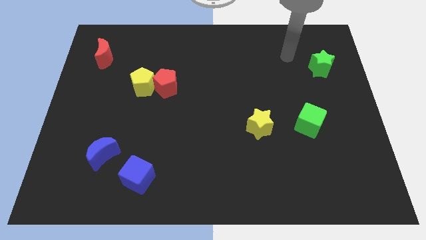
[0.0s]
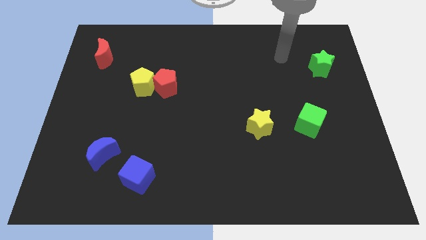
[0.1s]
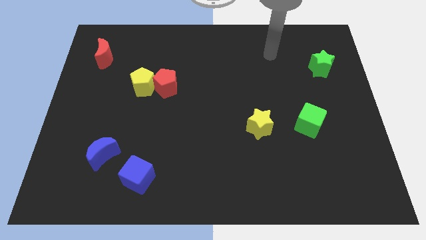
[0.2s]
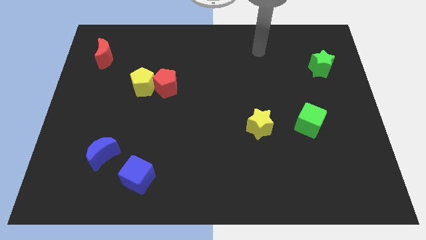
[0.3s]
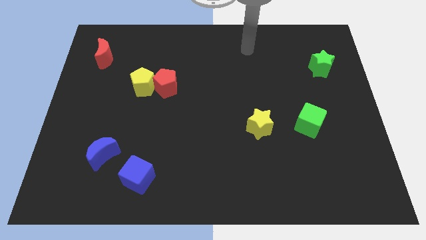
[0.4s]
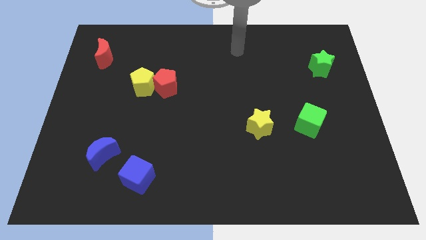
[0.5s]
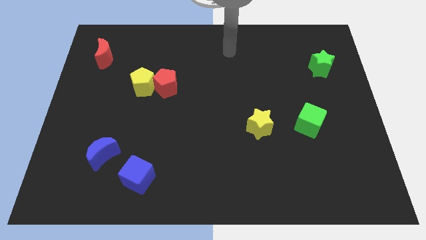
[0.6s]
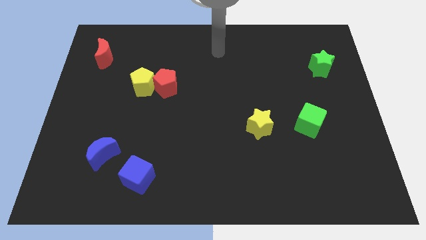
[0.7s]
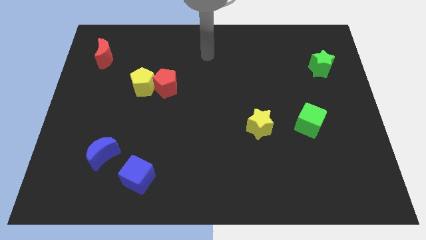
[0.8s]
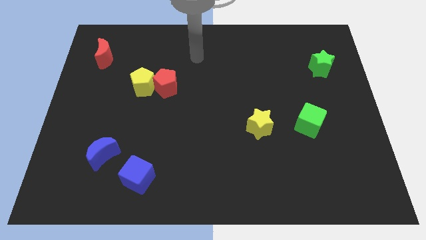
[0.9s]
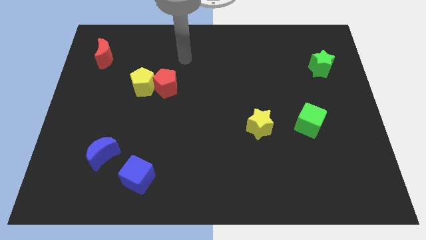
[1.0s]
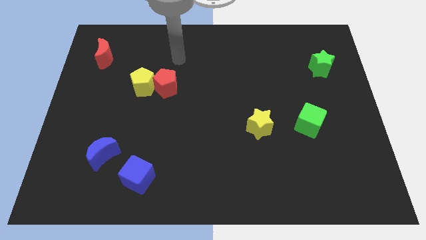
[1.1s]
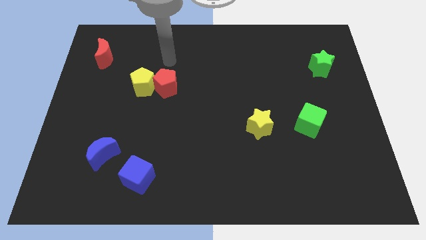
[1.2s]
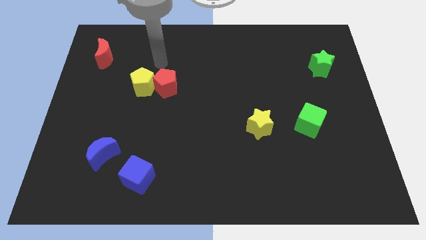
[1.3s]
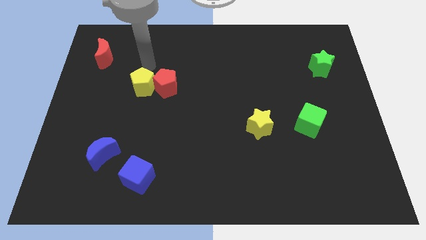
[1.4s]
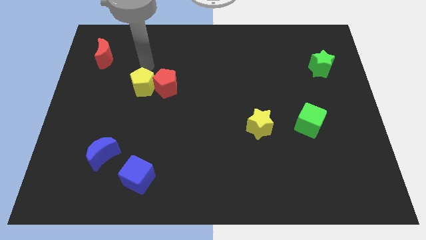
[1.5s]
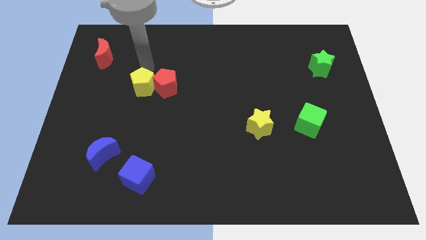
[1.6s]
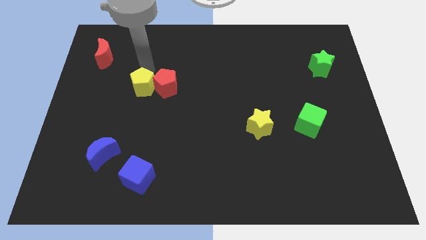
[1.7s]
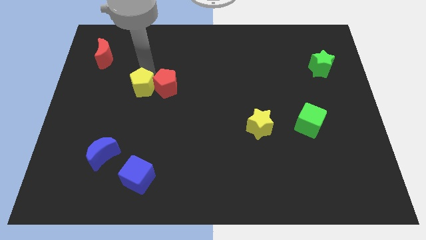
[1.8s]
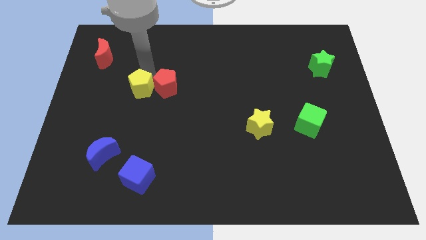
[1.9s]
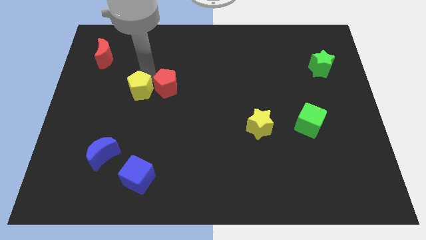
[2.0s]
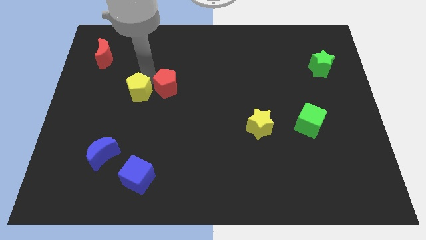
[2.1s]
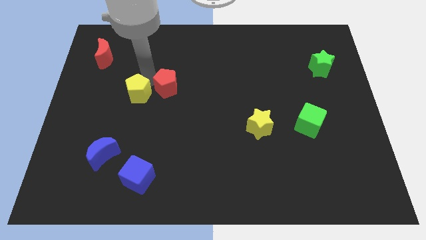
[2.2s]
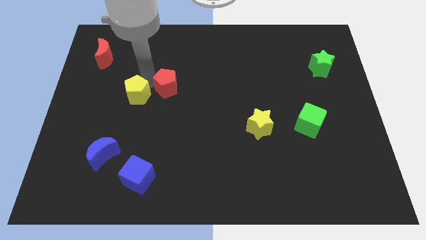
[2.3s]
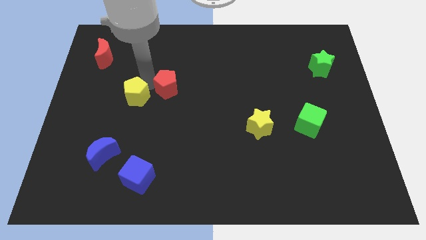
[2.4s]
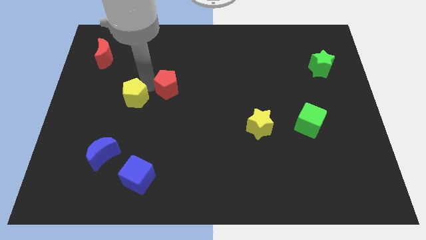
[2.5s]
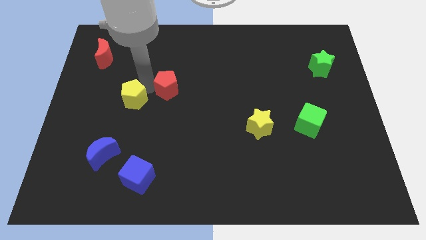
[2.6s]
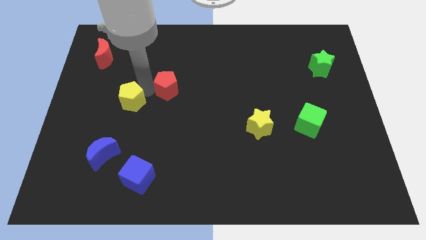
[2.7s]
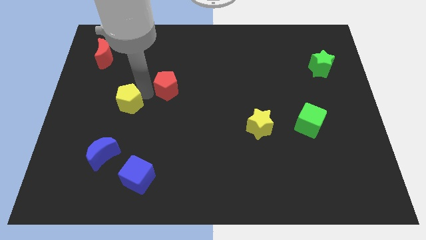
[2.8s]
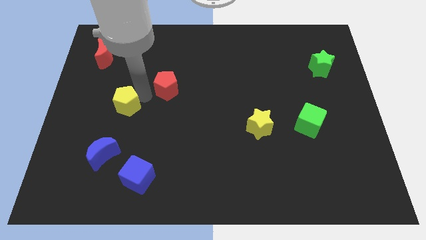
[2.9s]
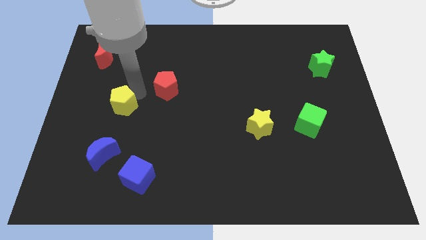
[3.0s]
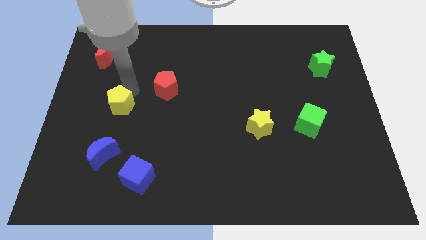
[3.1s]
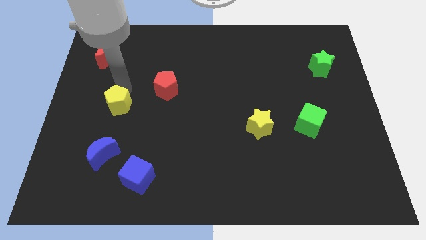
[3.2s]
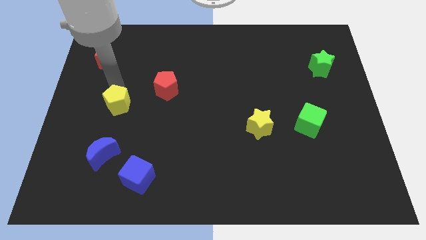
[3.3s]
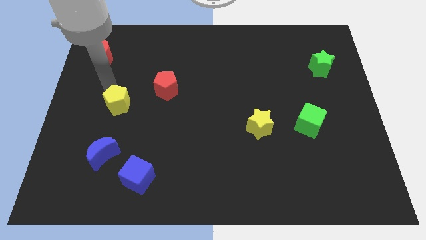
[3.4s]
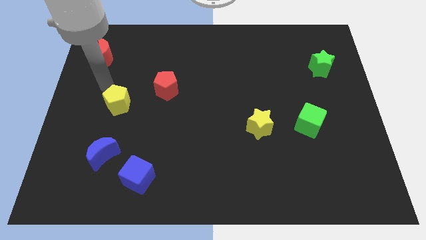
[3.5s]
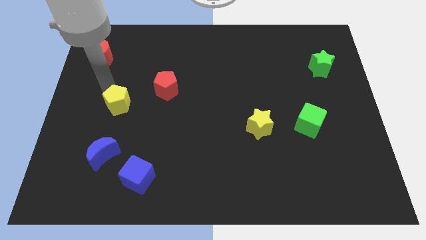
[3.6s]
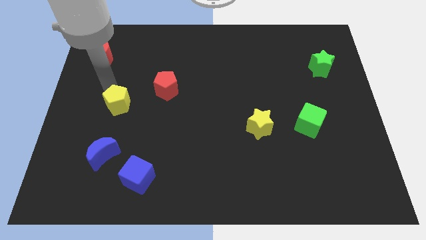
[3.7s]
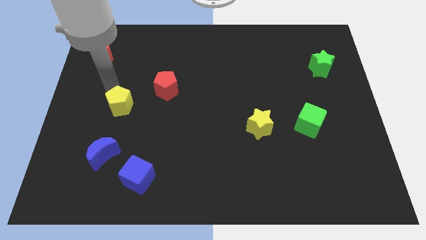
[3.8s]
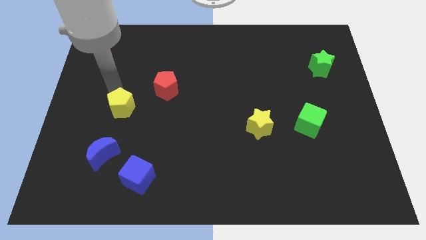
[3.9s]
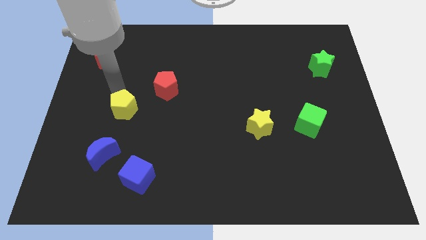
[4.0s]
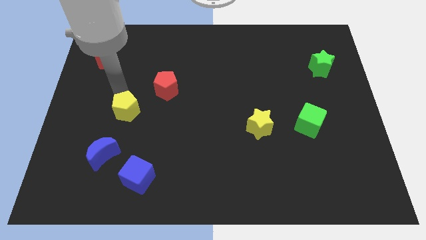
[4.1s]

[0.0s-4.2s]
slightly slide the yellow pentagon down

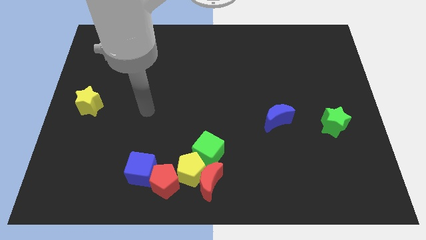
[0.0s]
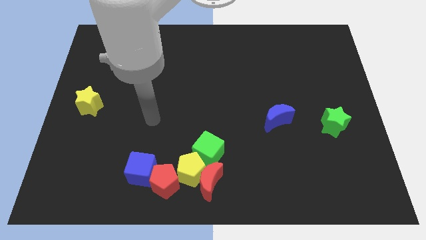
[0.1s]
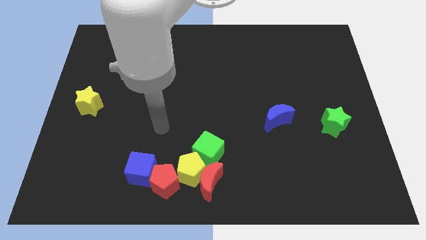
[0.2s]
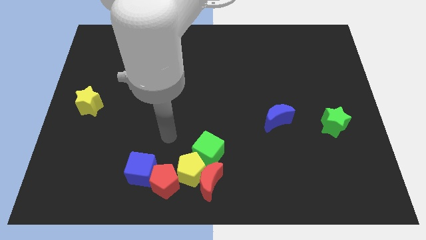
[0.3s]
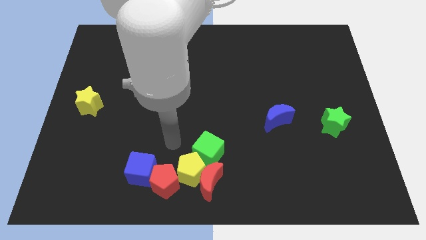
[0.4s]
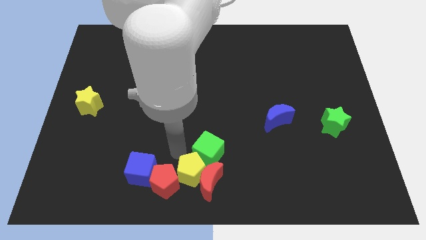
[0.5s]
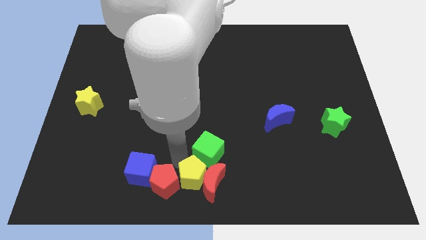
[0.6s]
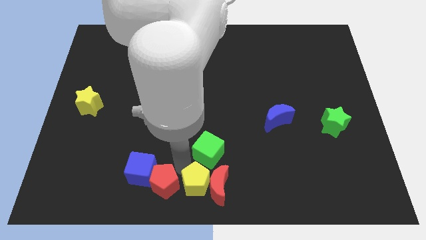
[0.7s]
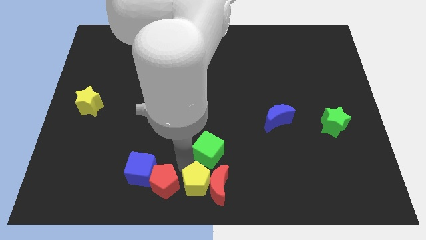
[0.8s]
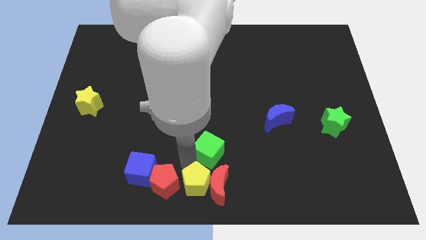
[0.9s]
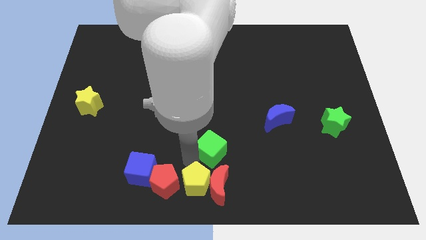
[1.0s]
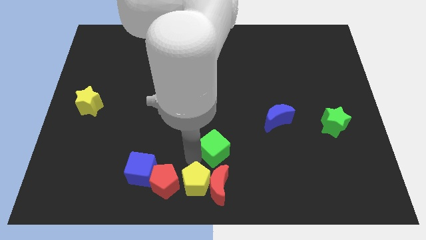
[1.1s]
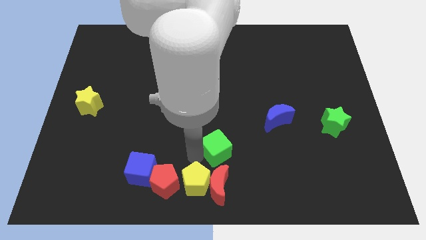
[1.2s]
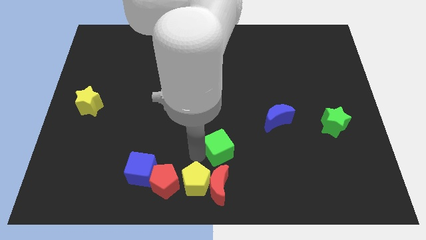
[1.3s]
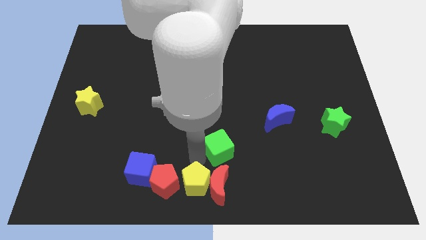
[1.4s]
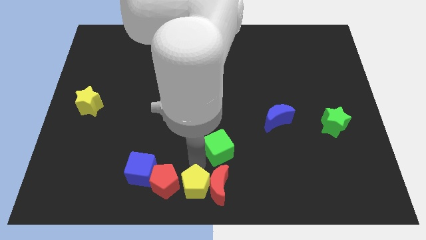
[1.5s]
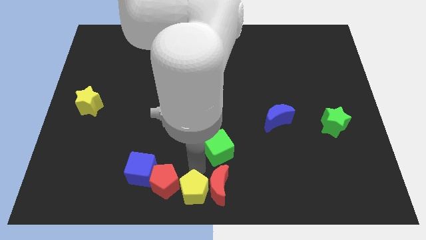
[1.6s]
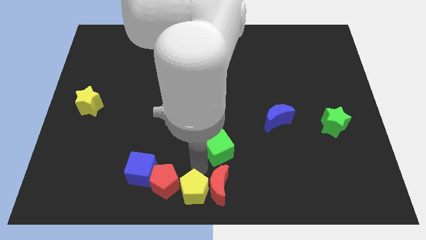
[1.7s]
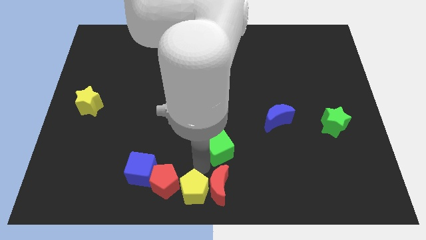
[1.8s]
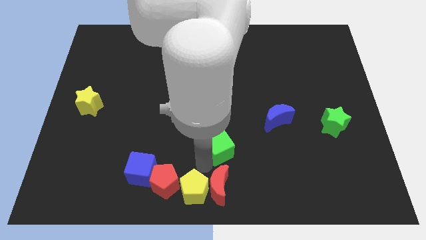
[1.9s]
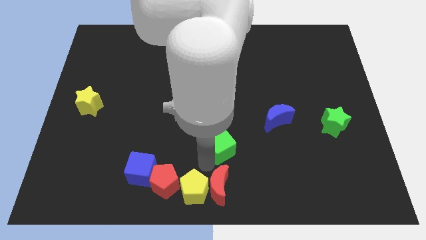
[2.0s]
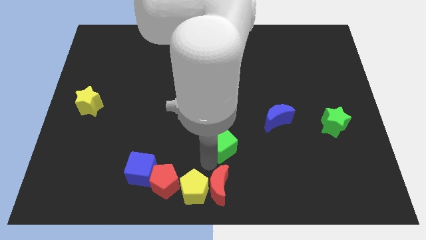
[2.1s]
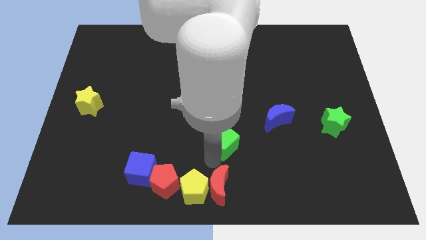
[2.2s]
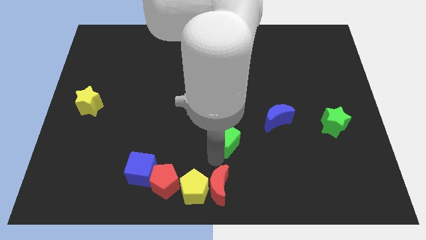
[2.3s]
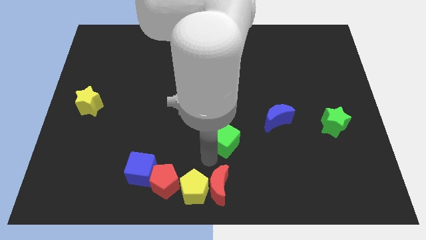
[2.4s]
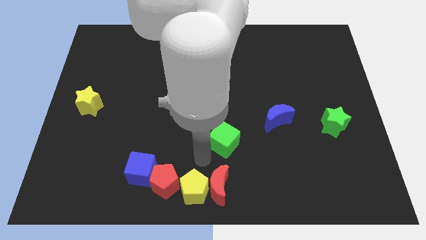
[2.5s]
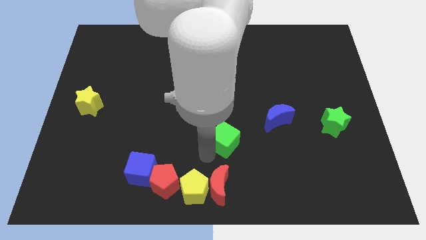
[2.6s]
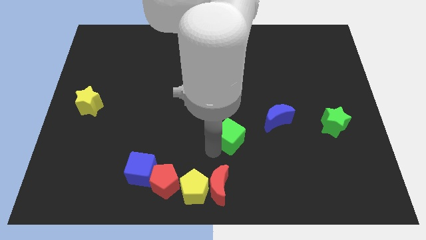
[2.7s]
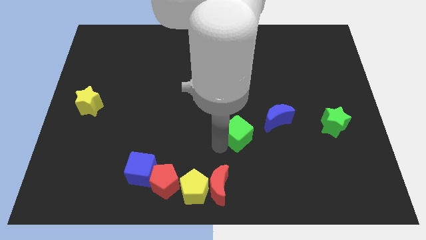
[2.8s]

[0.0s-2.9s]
move the green cube up and to the right somewhat

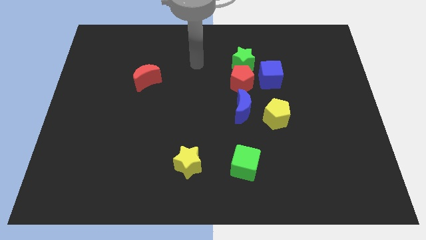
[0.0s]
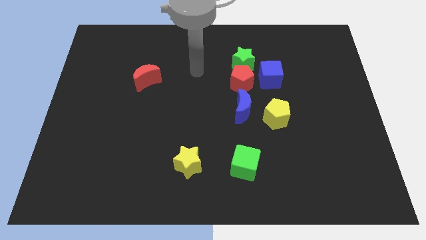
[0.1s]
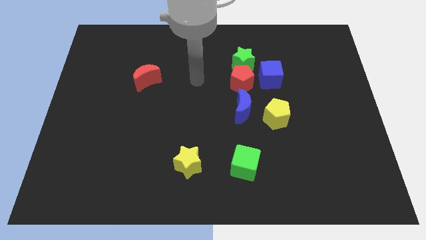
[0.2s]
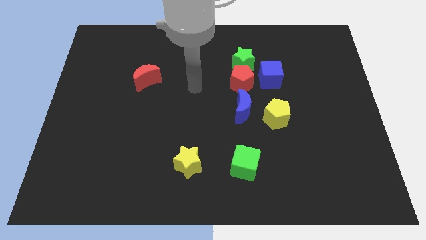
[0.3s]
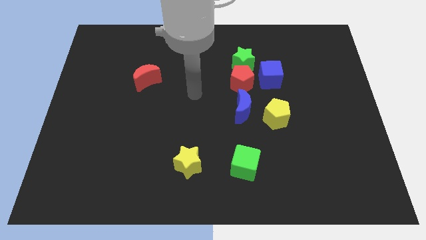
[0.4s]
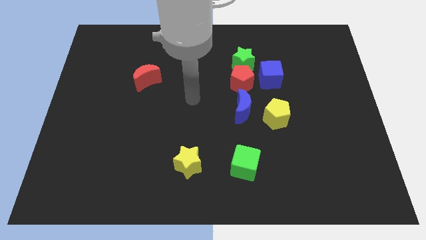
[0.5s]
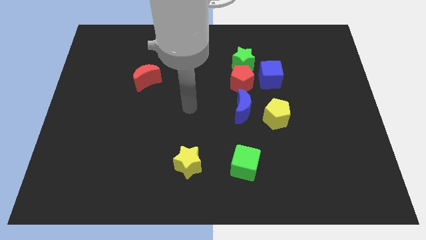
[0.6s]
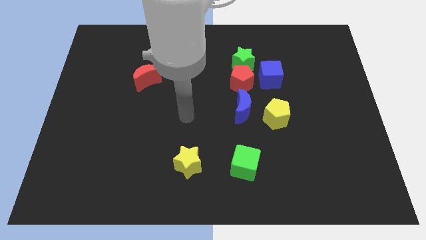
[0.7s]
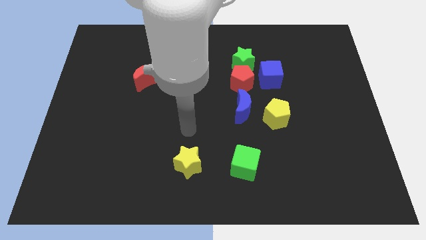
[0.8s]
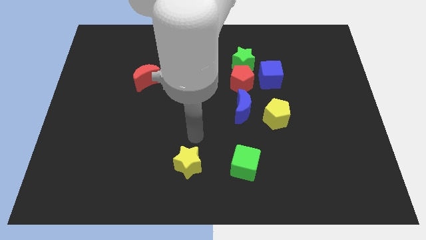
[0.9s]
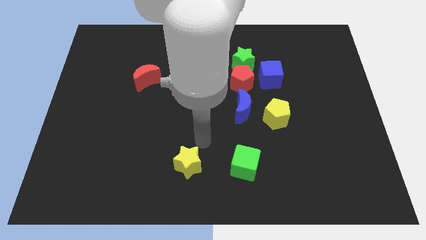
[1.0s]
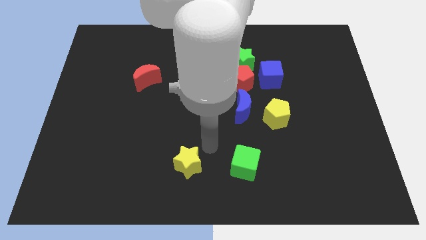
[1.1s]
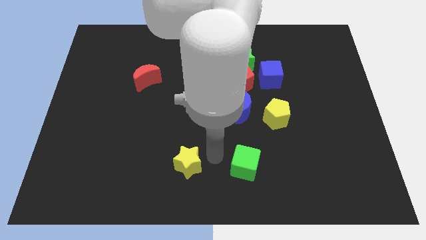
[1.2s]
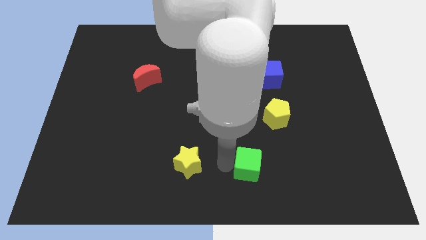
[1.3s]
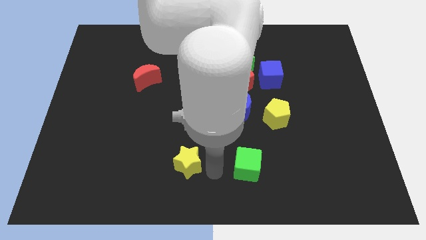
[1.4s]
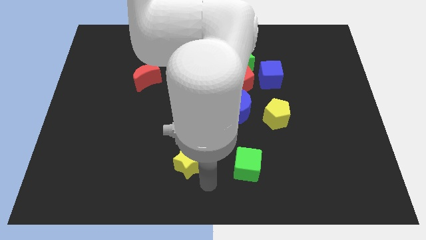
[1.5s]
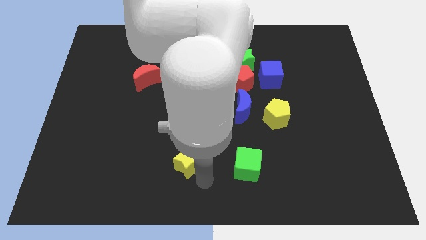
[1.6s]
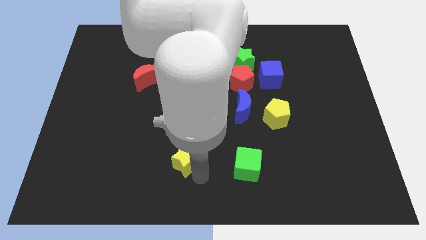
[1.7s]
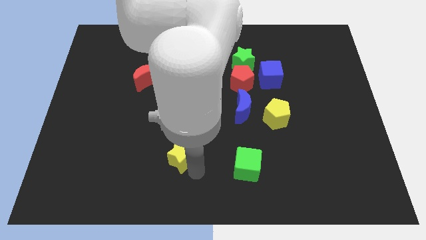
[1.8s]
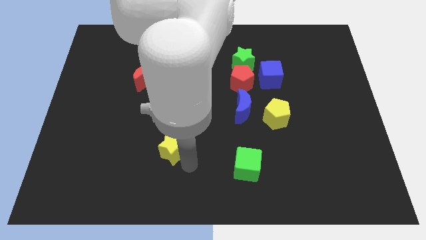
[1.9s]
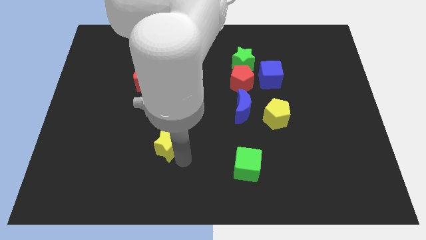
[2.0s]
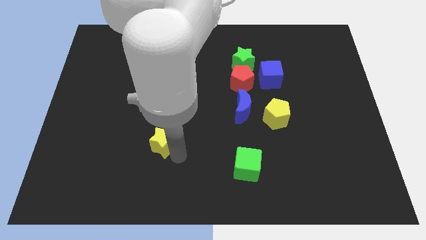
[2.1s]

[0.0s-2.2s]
move the yellow star upwards and left diagonally somewhat
